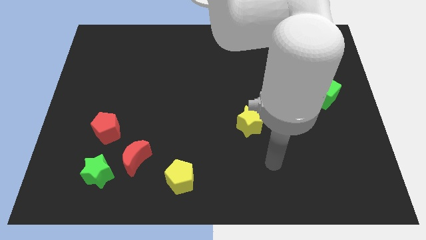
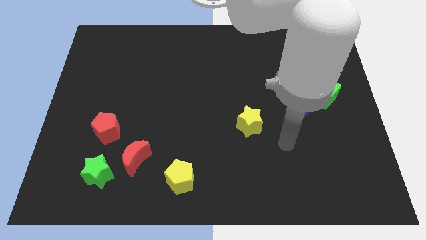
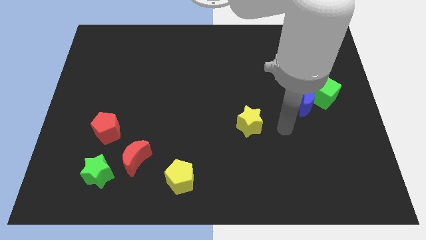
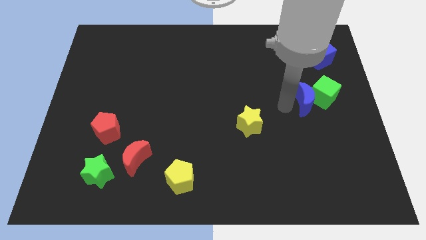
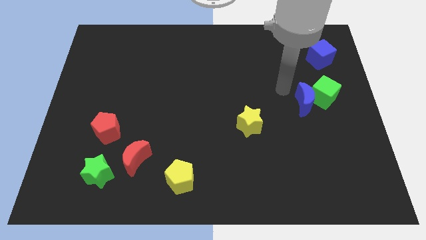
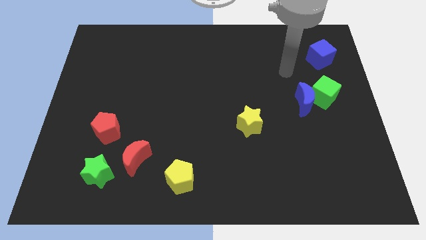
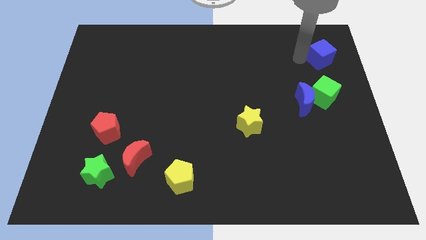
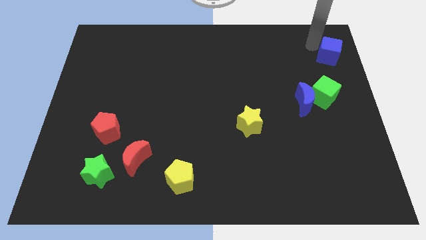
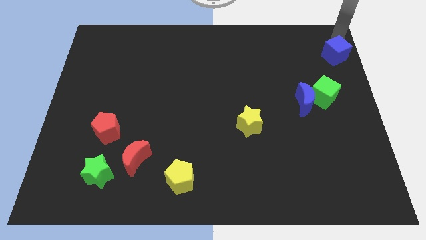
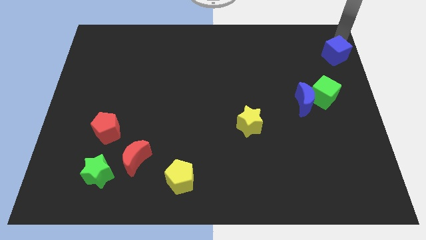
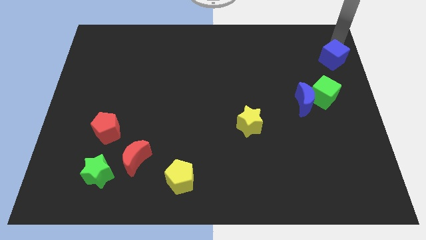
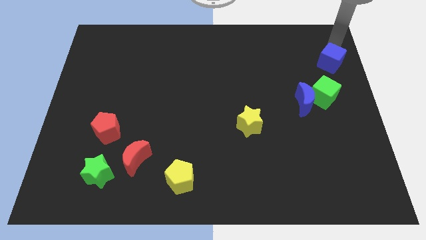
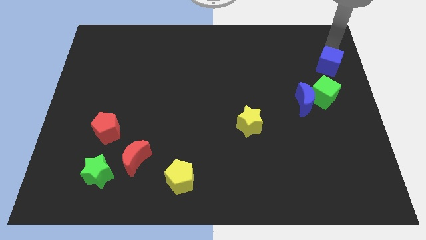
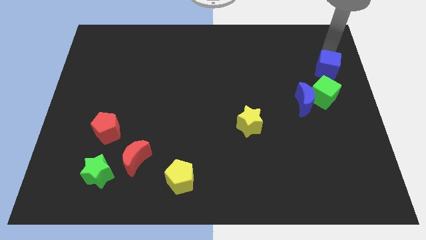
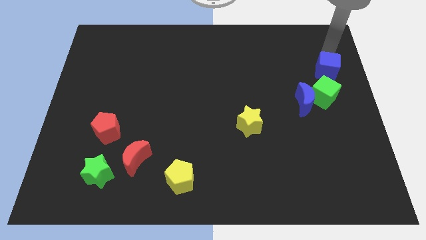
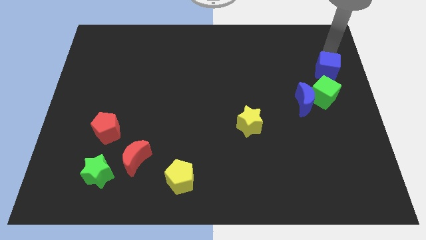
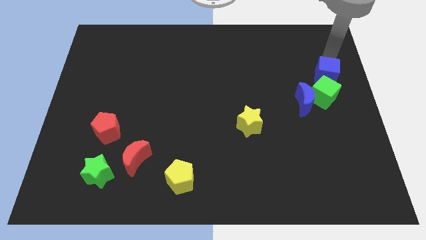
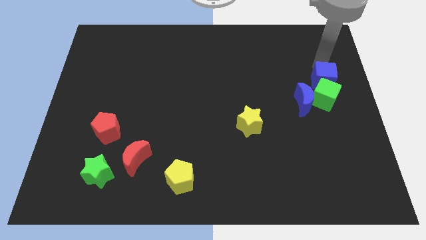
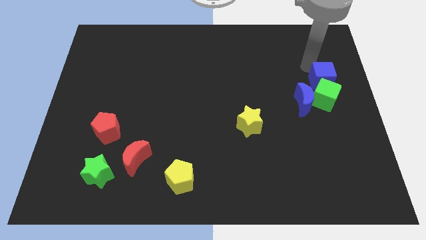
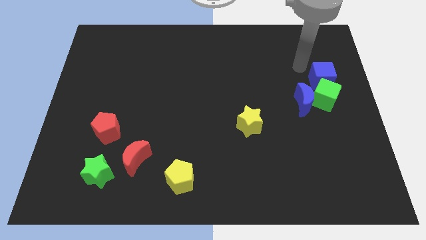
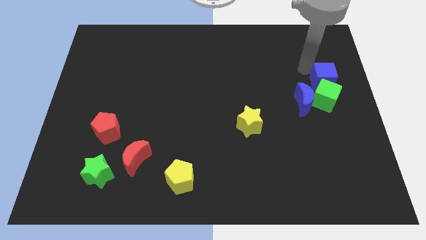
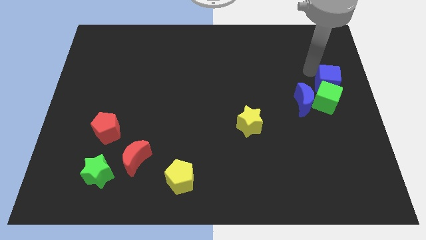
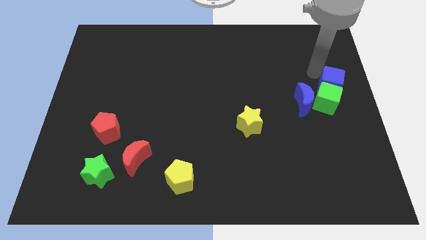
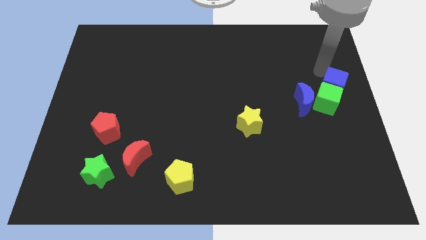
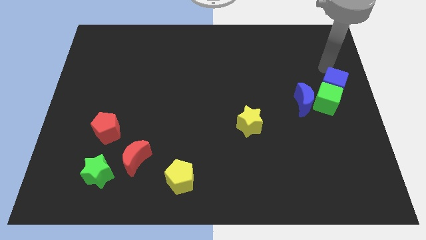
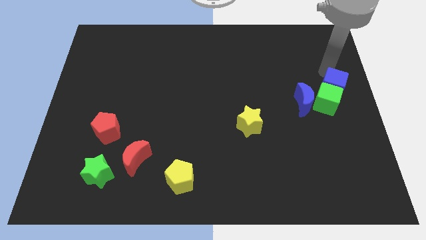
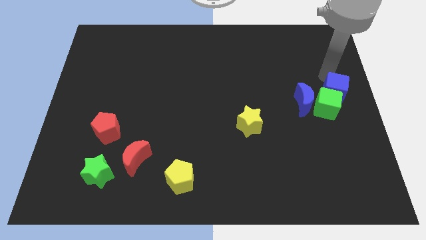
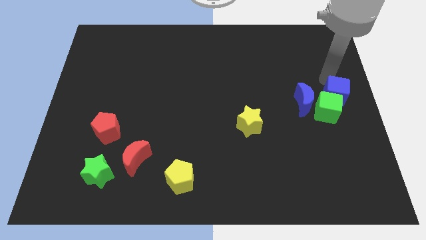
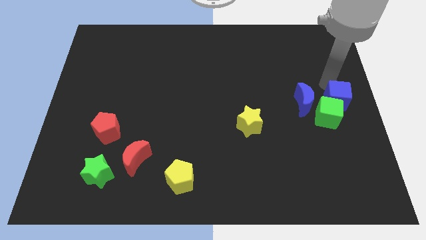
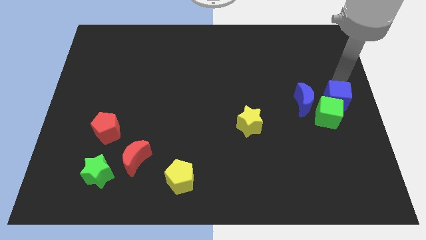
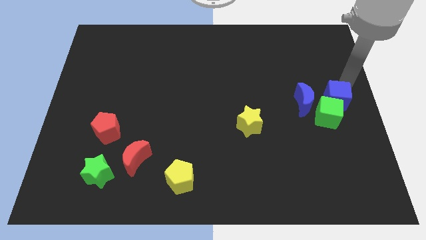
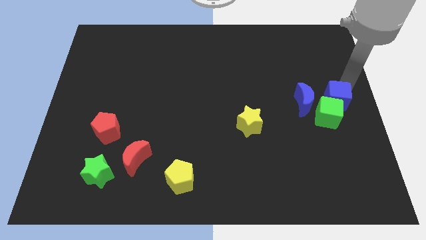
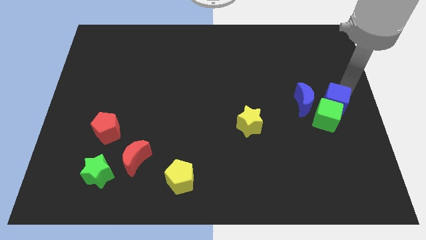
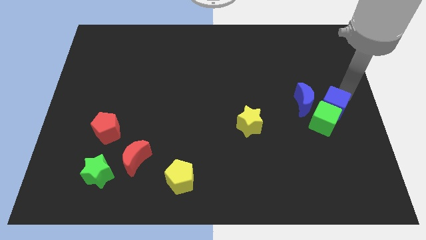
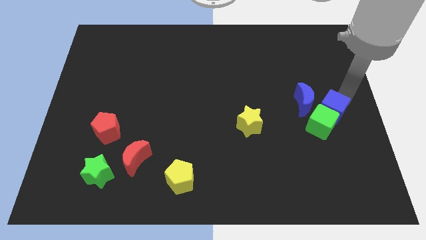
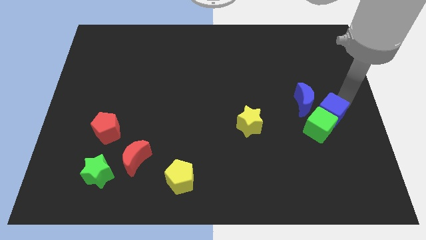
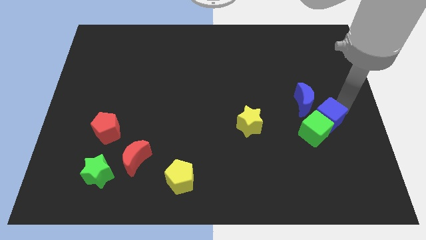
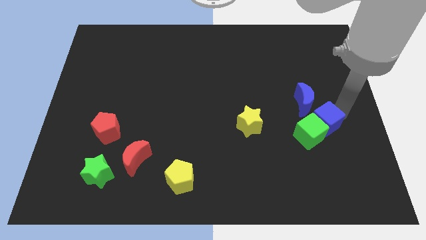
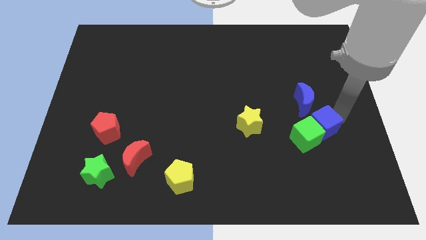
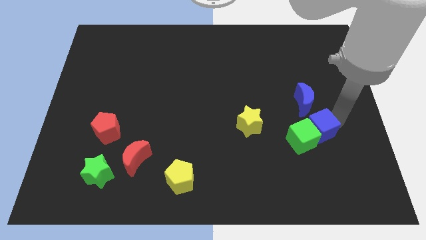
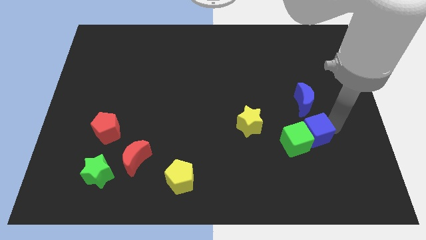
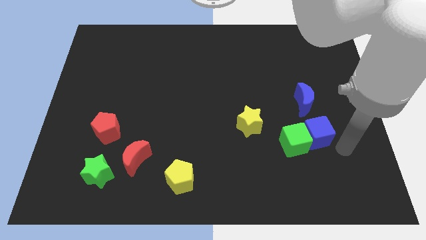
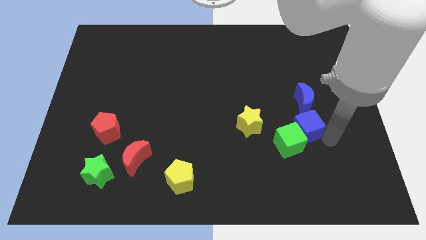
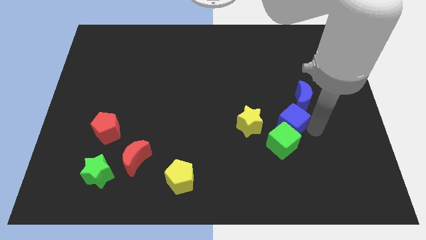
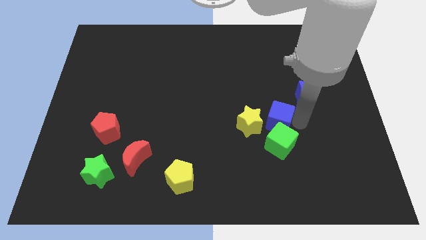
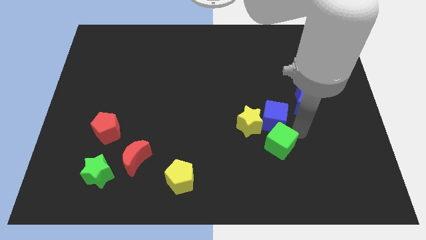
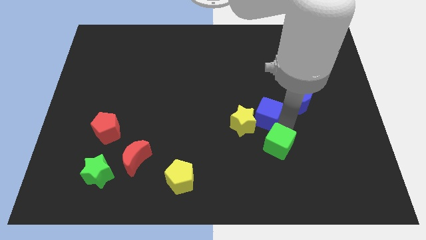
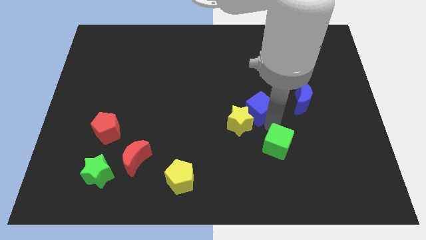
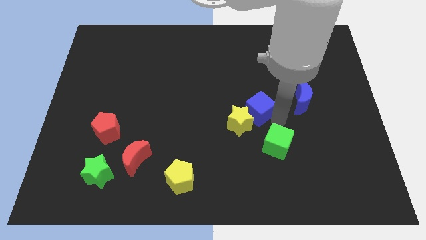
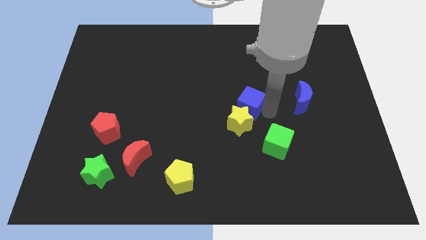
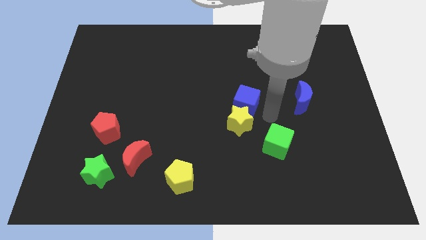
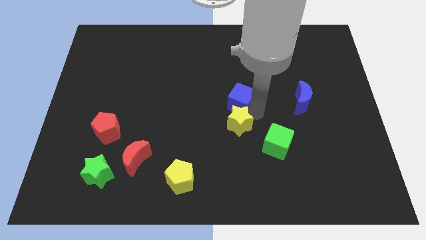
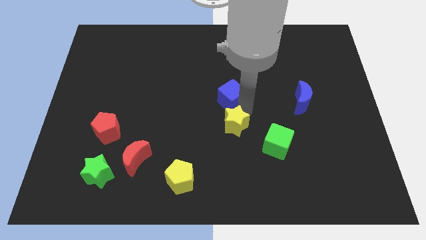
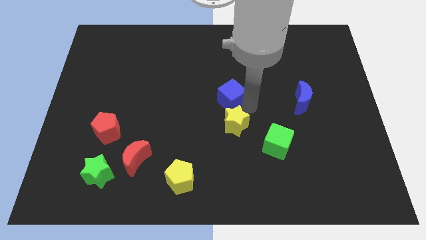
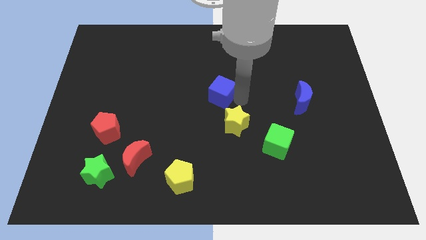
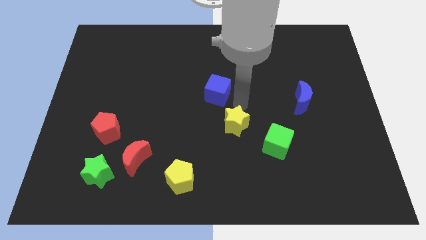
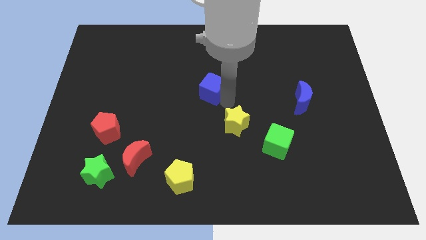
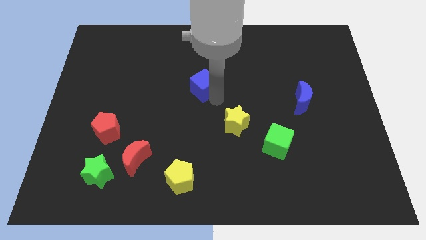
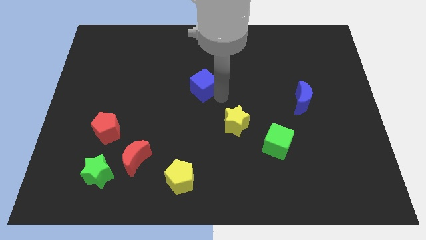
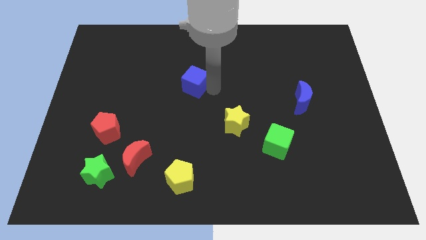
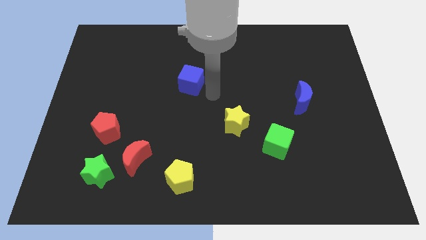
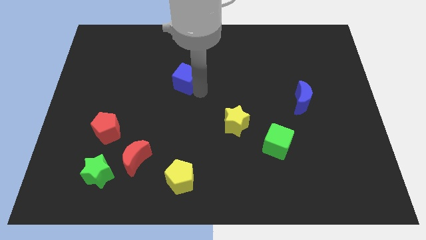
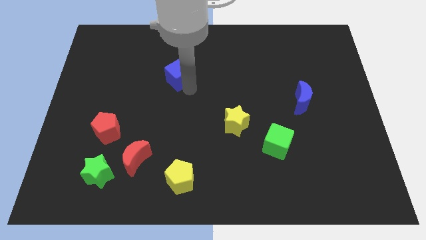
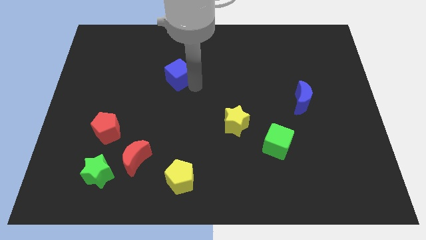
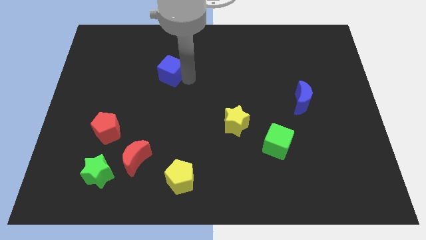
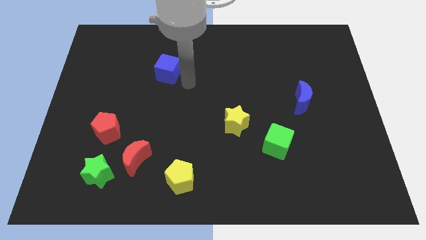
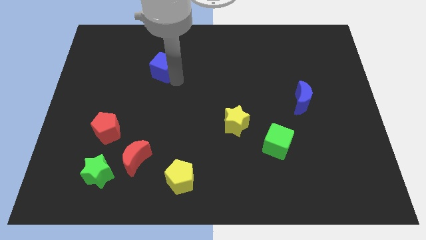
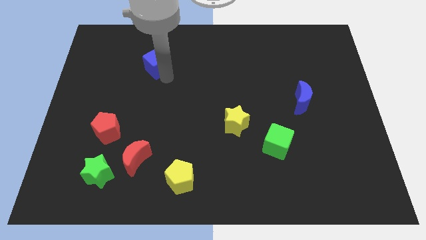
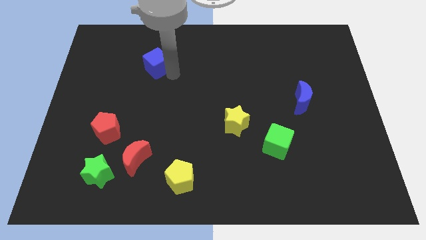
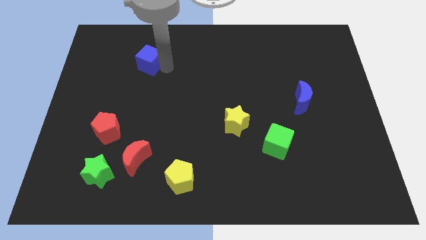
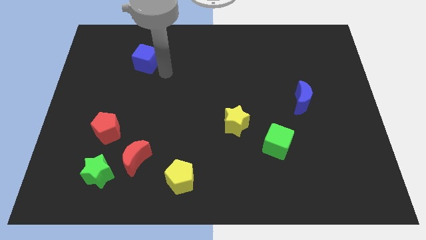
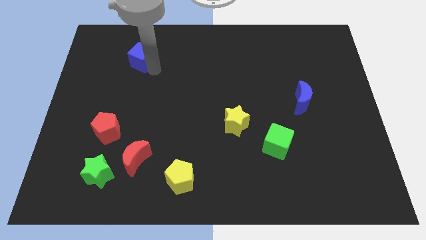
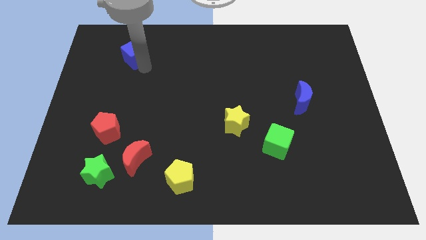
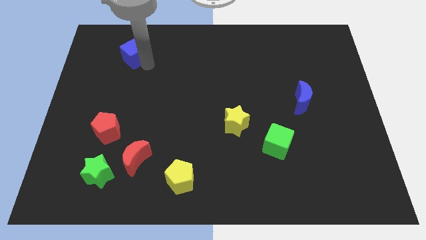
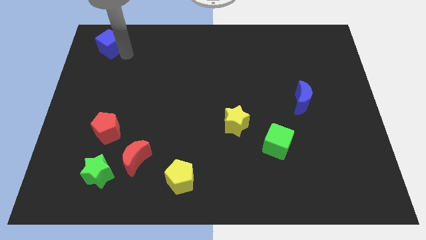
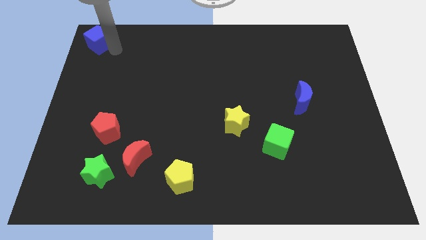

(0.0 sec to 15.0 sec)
push the blue cube to the top left corner
